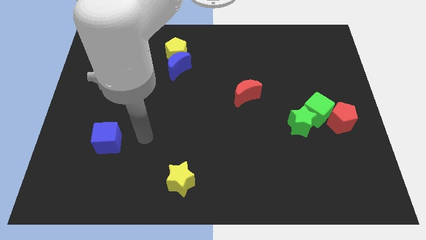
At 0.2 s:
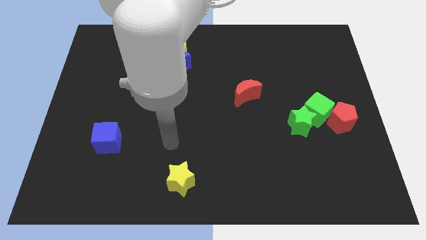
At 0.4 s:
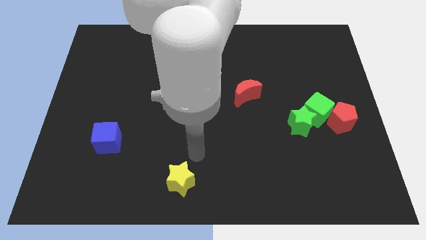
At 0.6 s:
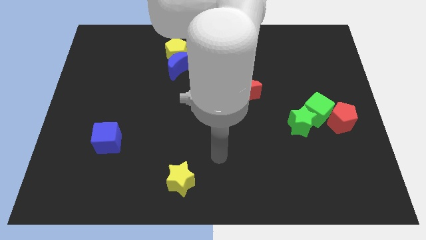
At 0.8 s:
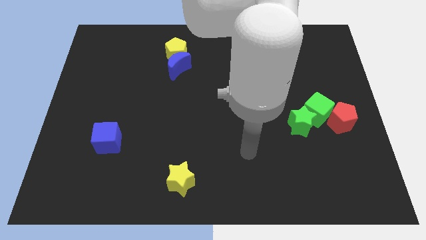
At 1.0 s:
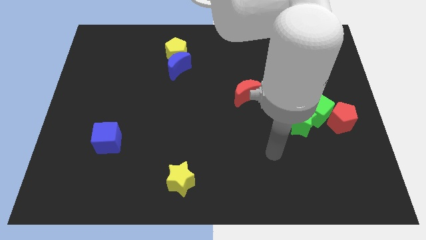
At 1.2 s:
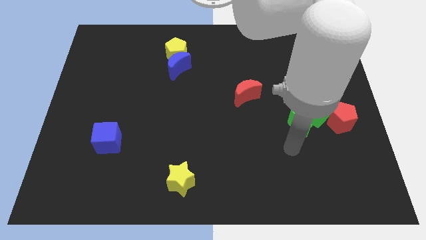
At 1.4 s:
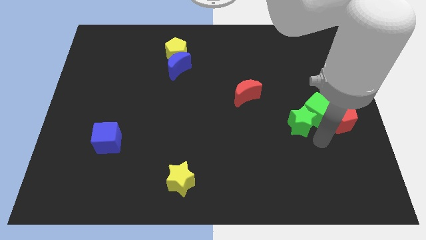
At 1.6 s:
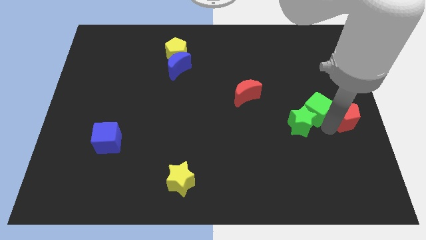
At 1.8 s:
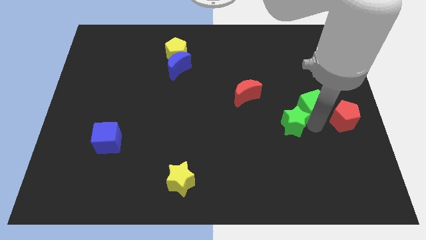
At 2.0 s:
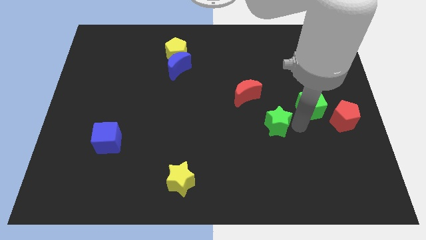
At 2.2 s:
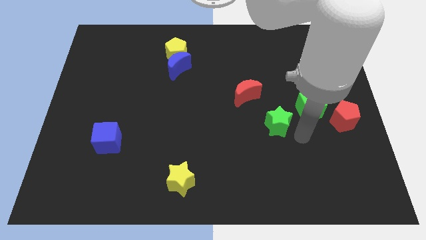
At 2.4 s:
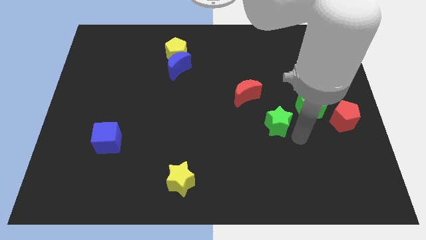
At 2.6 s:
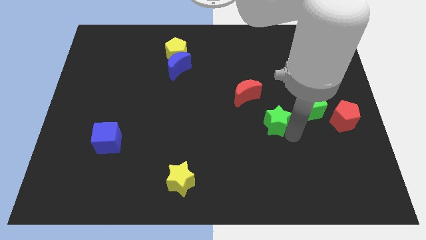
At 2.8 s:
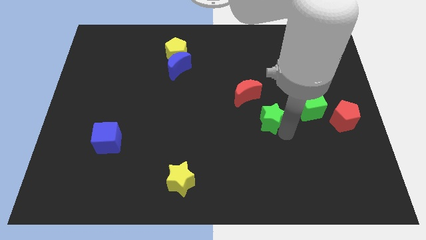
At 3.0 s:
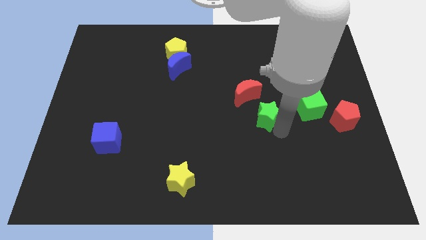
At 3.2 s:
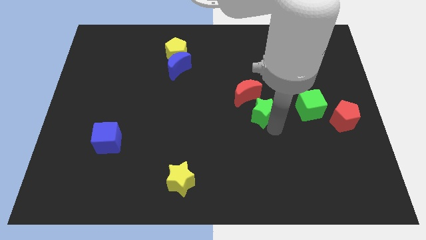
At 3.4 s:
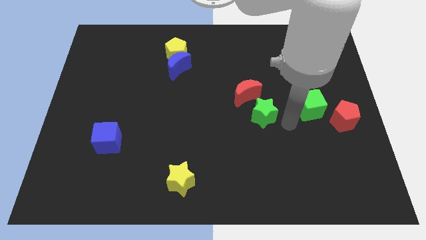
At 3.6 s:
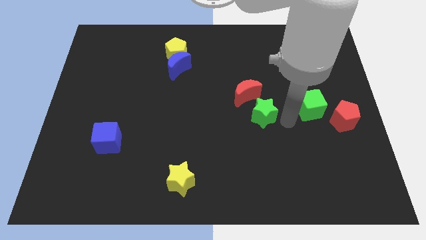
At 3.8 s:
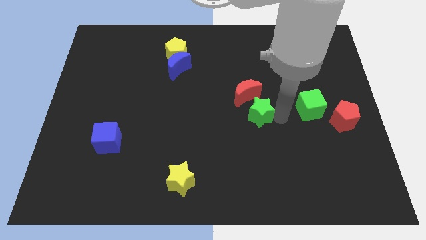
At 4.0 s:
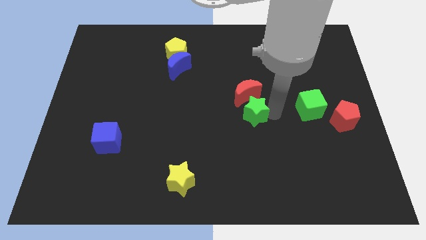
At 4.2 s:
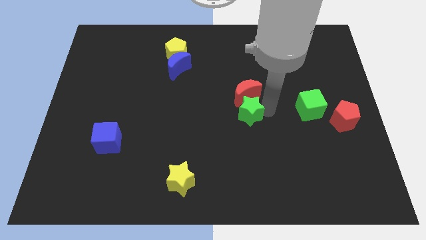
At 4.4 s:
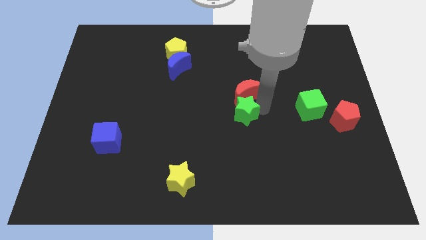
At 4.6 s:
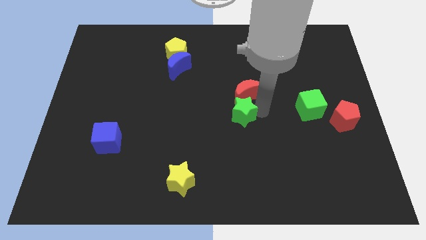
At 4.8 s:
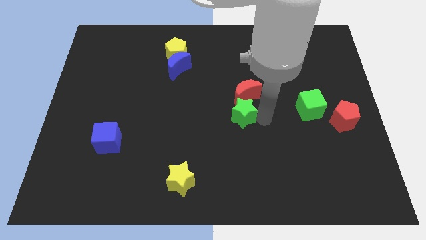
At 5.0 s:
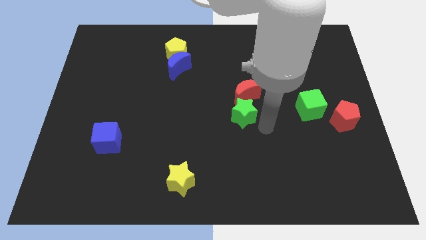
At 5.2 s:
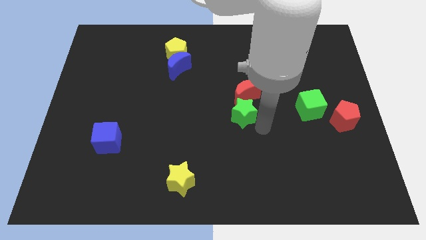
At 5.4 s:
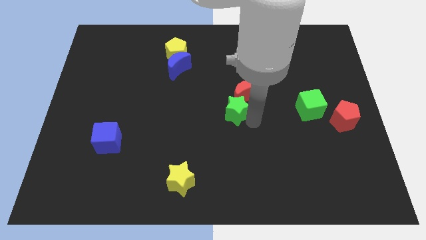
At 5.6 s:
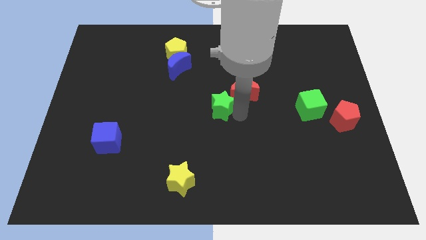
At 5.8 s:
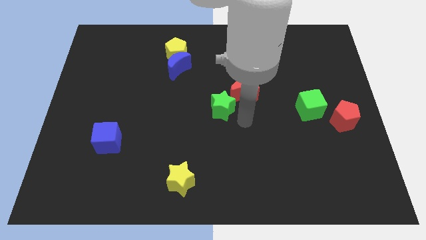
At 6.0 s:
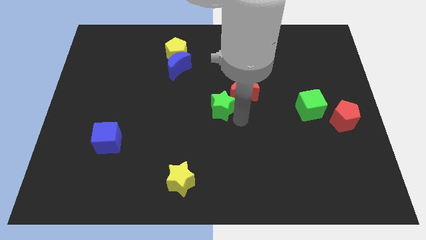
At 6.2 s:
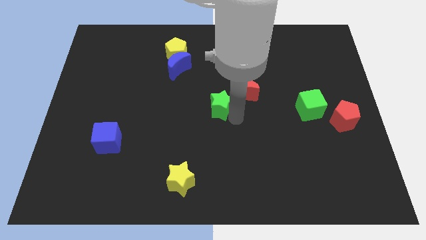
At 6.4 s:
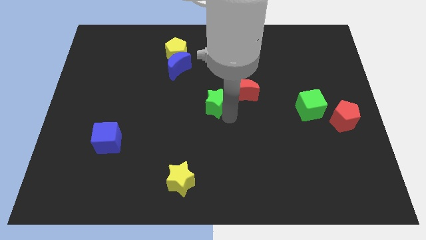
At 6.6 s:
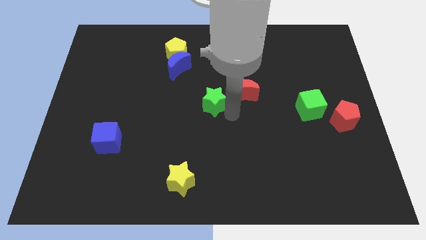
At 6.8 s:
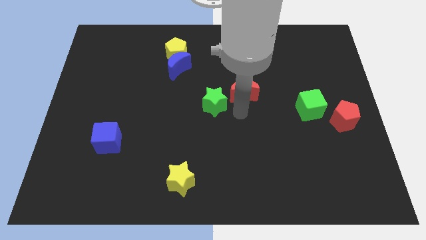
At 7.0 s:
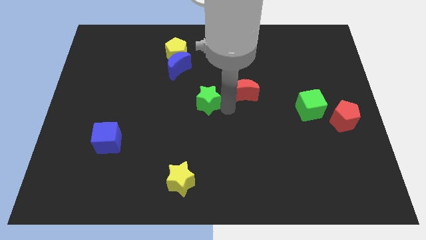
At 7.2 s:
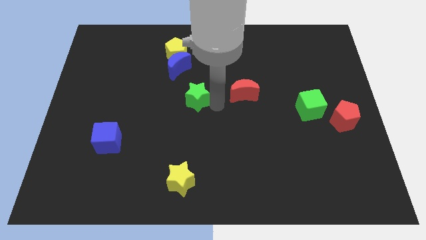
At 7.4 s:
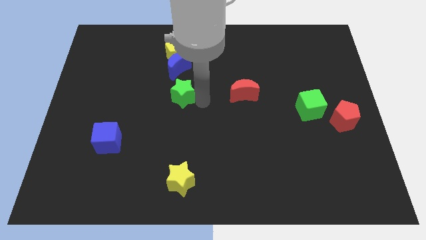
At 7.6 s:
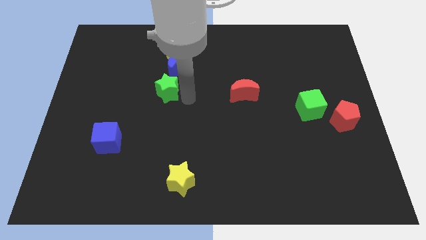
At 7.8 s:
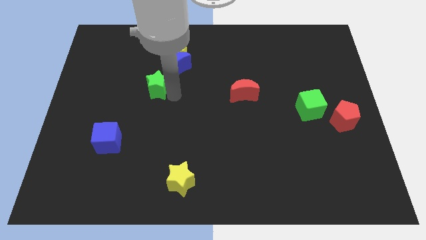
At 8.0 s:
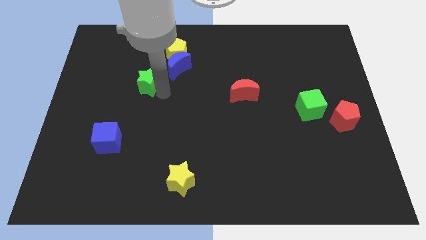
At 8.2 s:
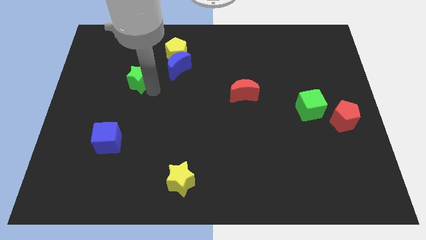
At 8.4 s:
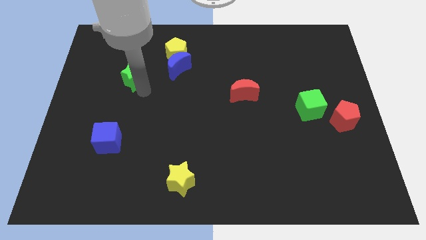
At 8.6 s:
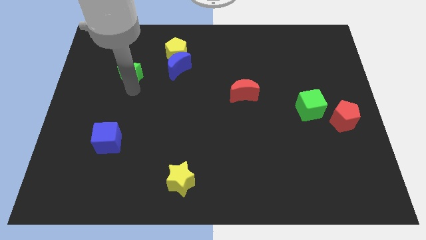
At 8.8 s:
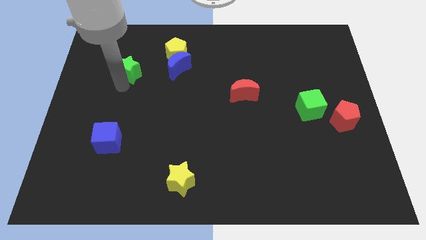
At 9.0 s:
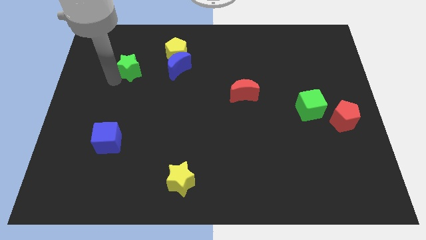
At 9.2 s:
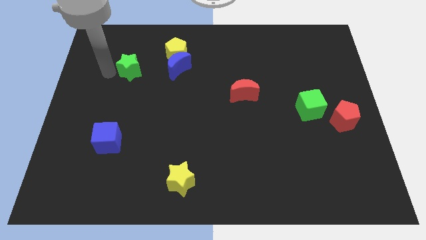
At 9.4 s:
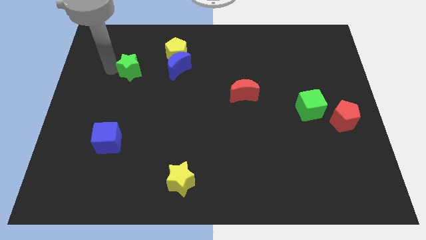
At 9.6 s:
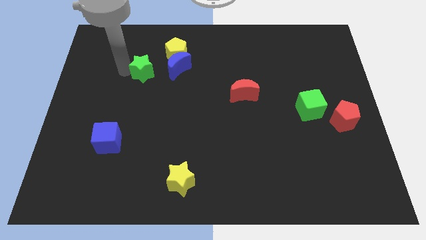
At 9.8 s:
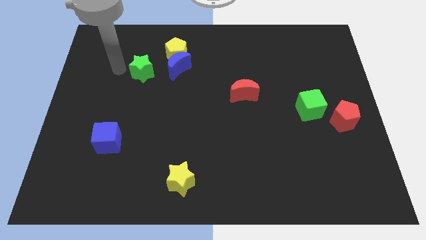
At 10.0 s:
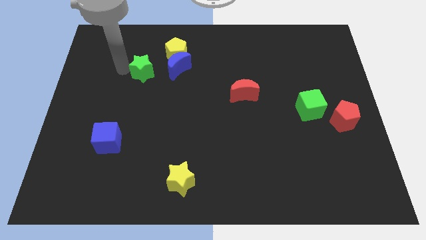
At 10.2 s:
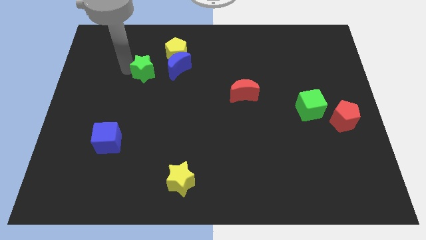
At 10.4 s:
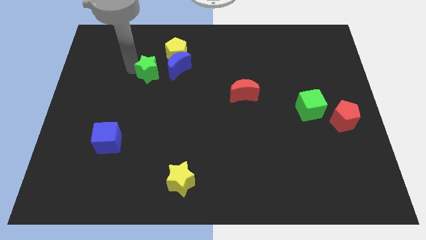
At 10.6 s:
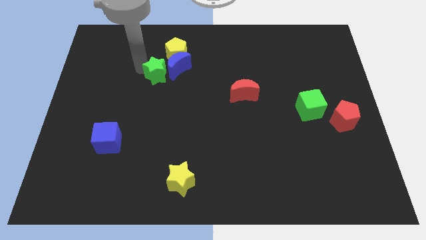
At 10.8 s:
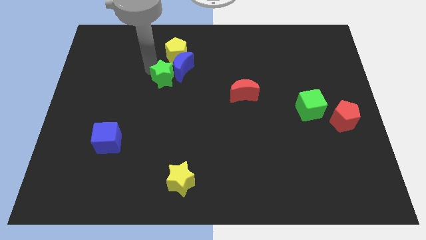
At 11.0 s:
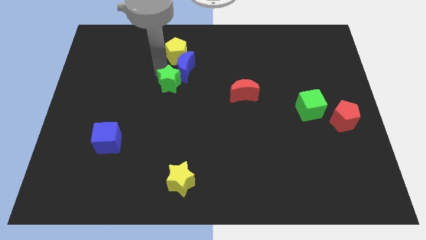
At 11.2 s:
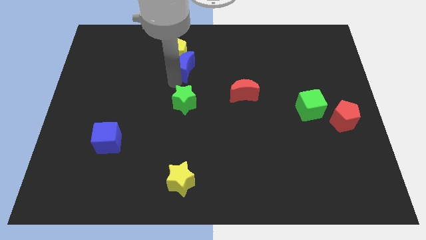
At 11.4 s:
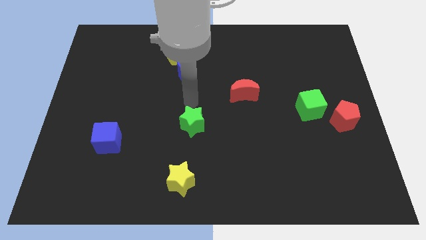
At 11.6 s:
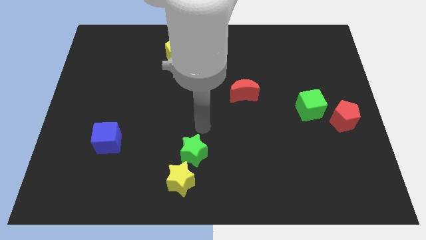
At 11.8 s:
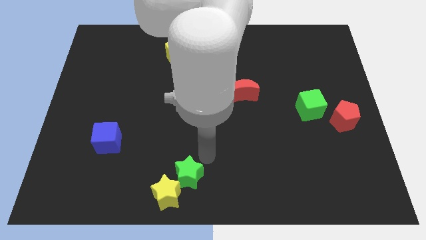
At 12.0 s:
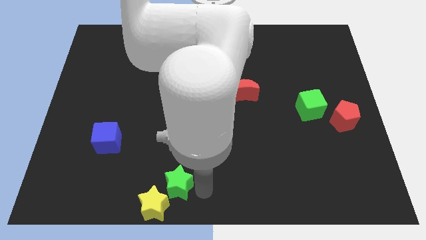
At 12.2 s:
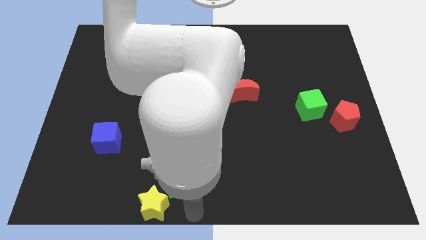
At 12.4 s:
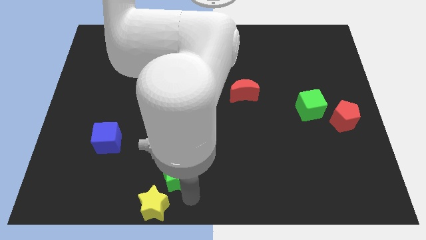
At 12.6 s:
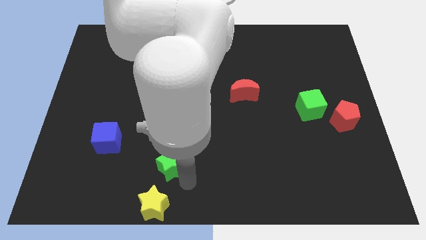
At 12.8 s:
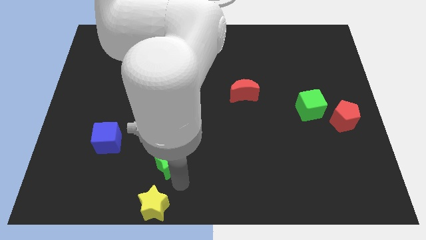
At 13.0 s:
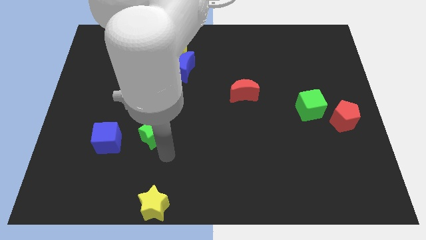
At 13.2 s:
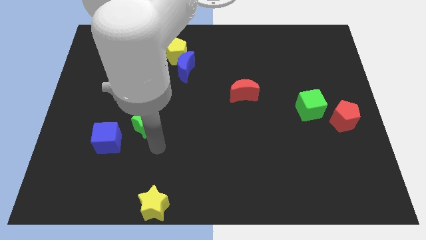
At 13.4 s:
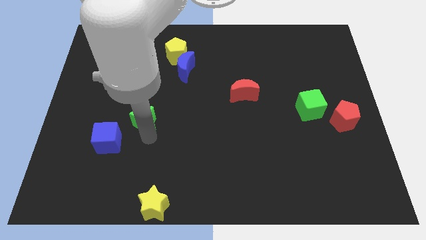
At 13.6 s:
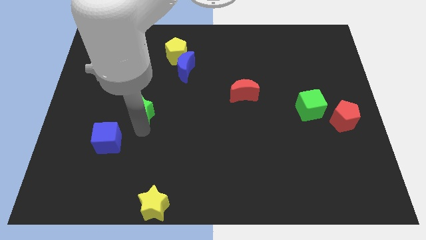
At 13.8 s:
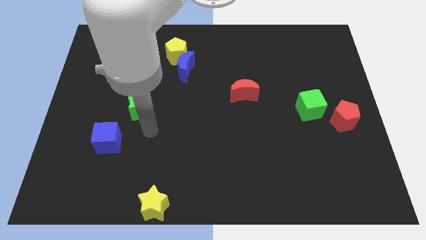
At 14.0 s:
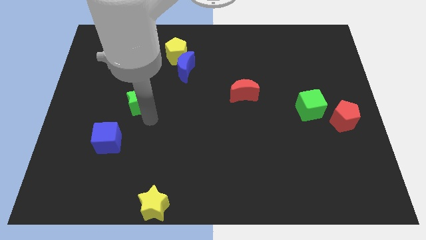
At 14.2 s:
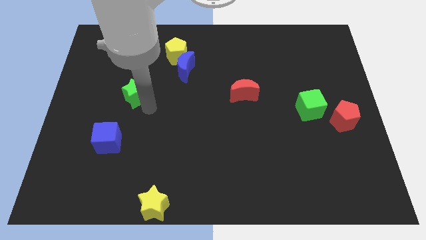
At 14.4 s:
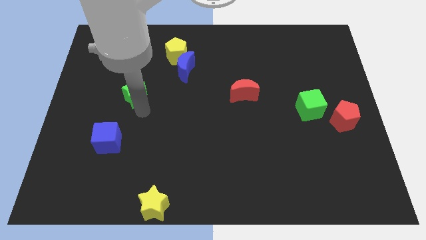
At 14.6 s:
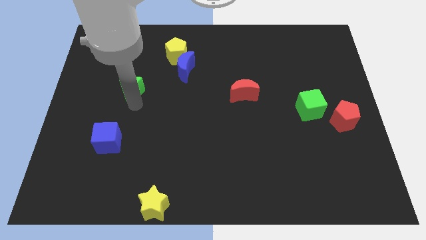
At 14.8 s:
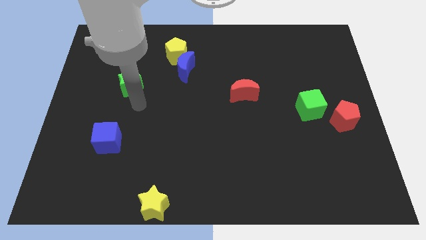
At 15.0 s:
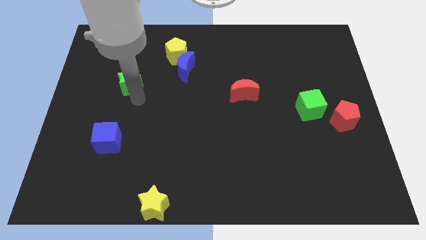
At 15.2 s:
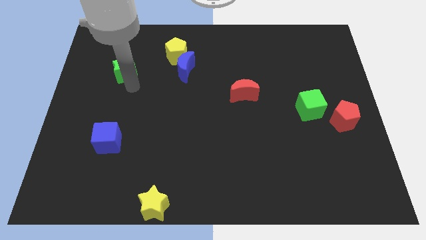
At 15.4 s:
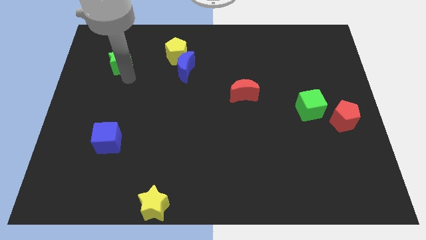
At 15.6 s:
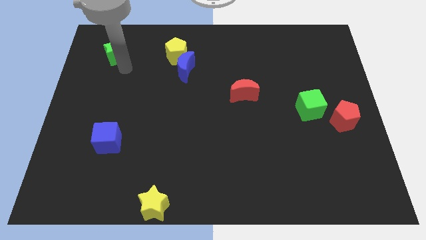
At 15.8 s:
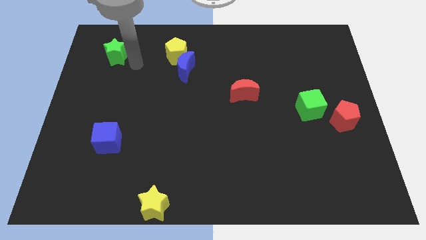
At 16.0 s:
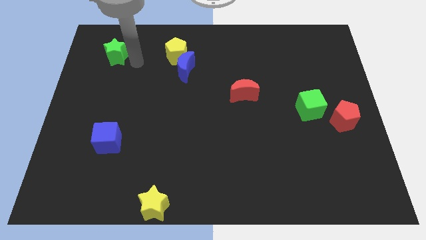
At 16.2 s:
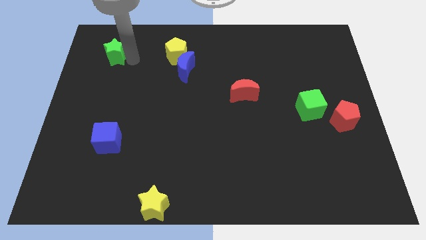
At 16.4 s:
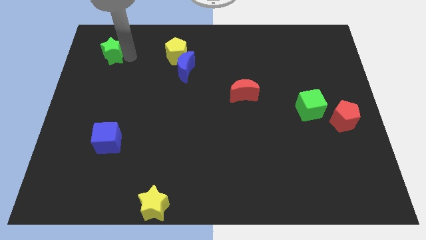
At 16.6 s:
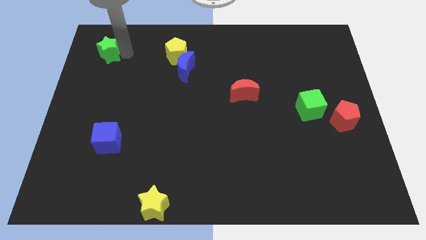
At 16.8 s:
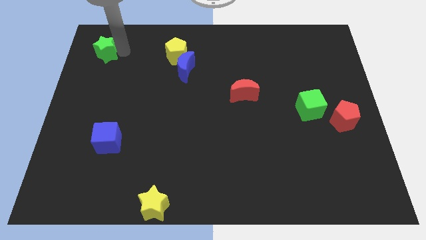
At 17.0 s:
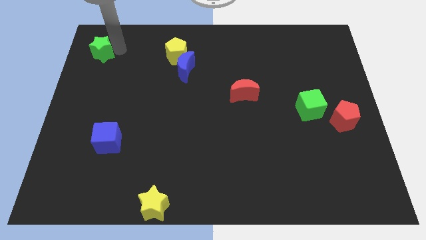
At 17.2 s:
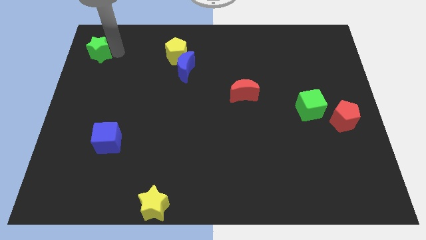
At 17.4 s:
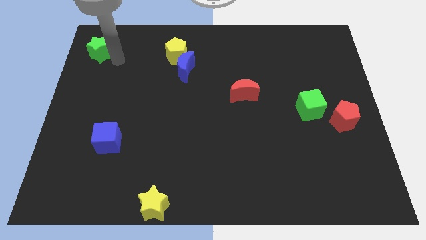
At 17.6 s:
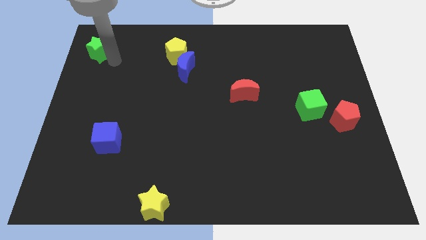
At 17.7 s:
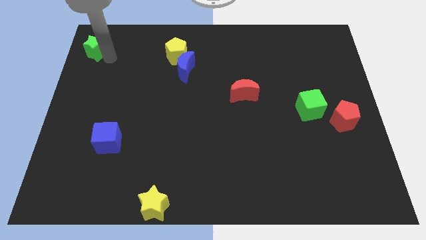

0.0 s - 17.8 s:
push the green star to the top left corner
